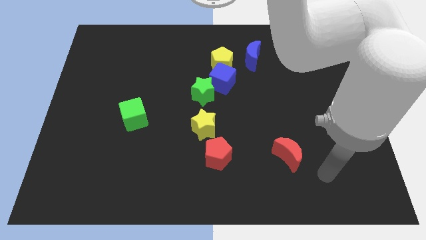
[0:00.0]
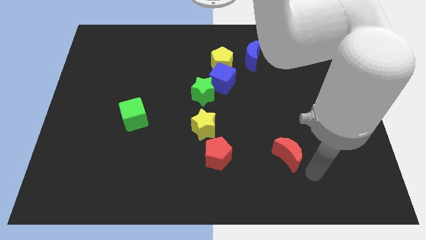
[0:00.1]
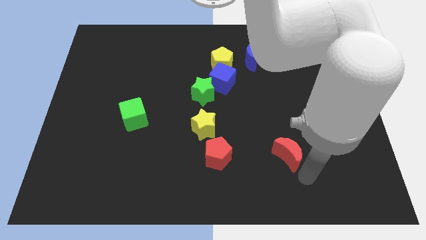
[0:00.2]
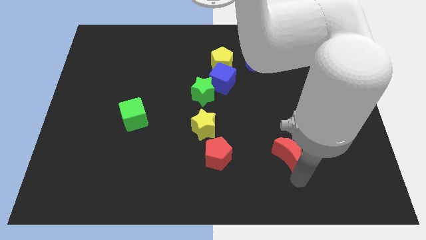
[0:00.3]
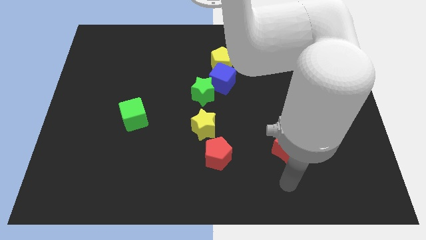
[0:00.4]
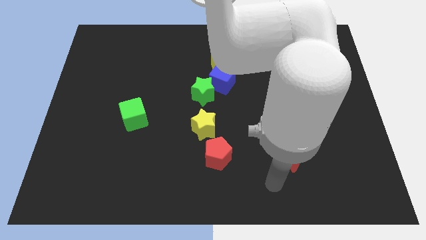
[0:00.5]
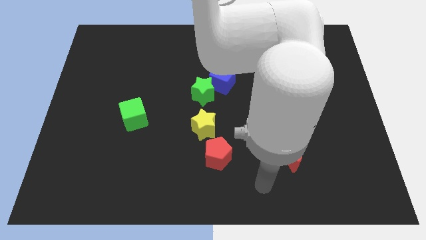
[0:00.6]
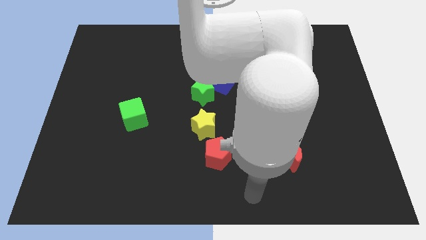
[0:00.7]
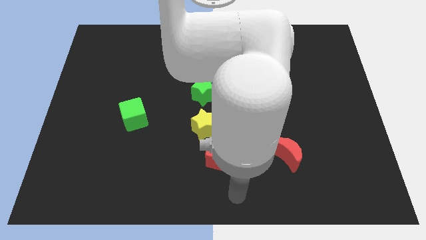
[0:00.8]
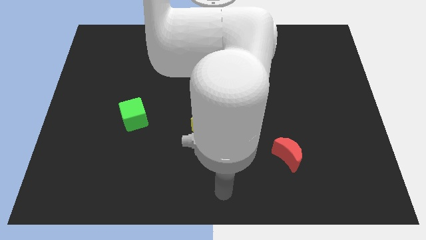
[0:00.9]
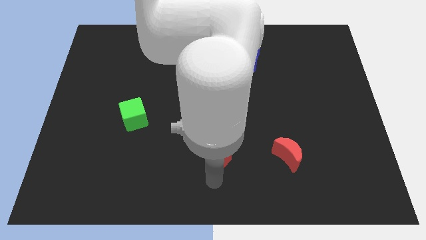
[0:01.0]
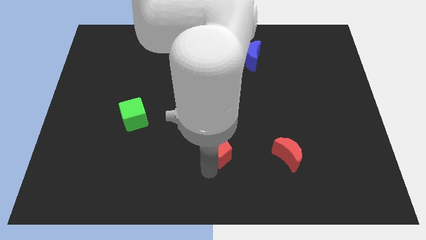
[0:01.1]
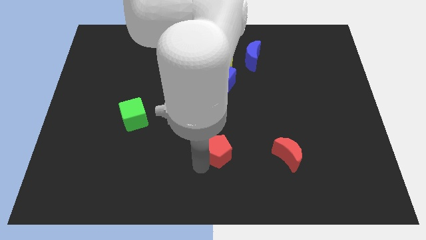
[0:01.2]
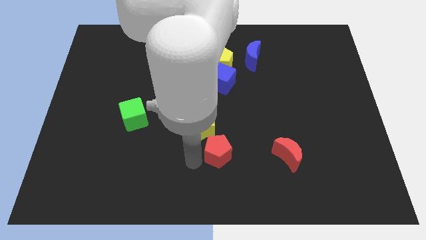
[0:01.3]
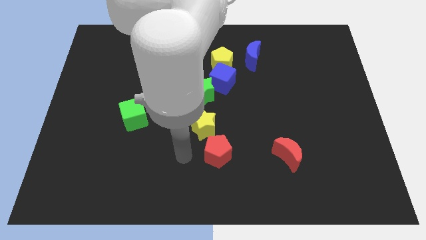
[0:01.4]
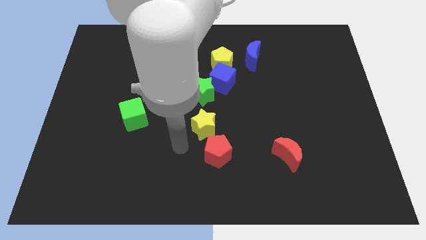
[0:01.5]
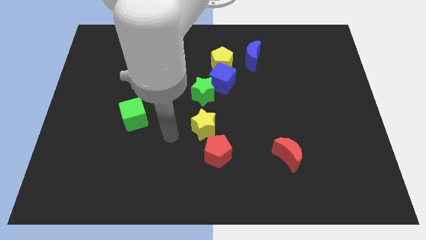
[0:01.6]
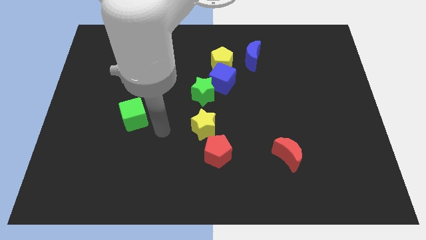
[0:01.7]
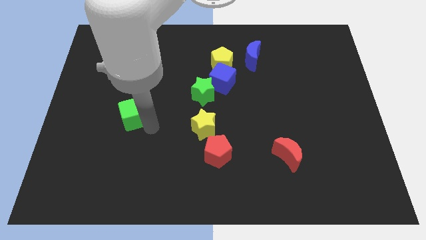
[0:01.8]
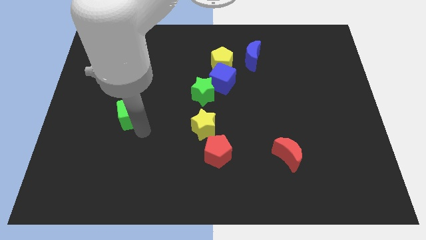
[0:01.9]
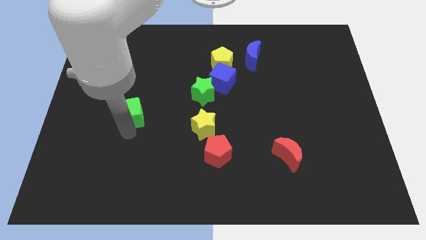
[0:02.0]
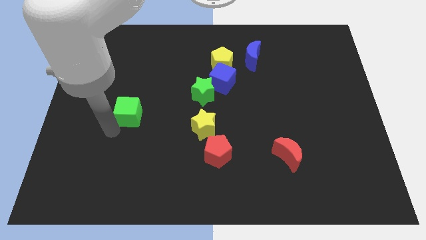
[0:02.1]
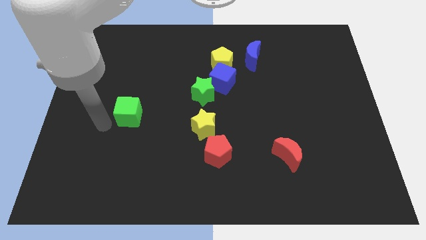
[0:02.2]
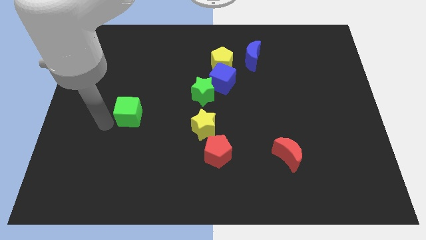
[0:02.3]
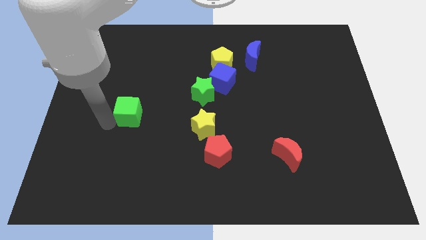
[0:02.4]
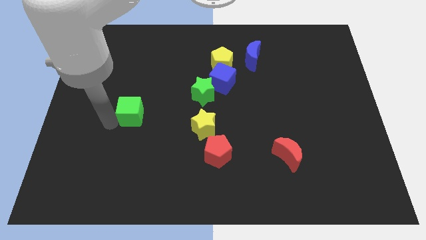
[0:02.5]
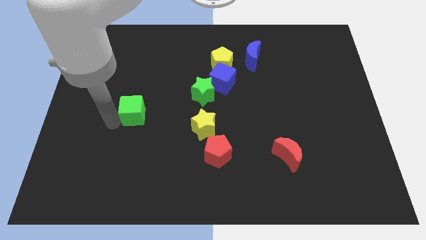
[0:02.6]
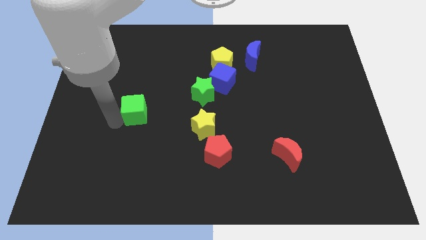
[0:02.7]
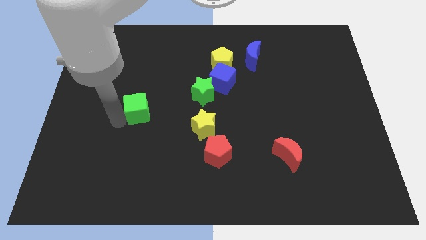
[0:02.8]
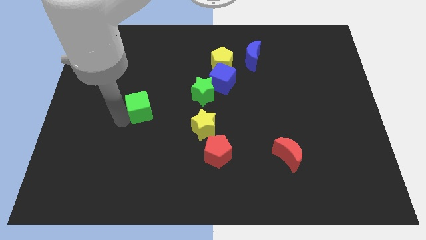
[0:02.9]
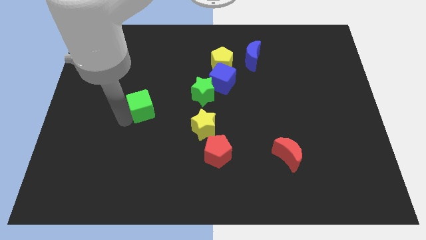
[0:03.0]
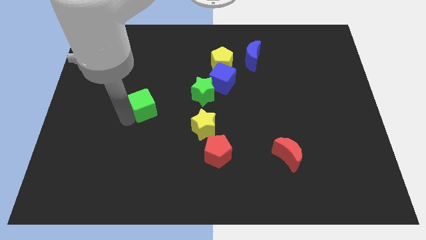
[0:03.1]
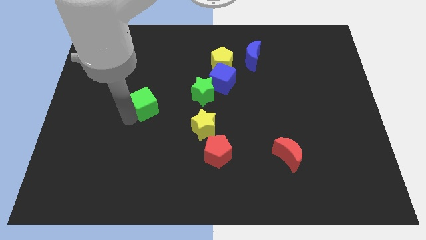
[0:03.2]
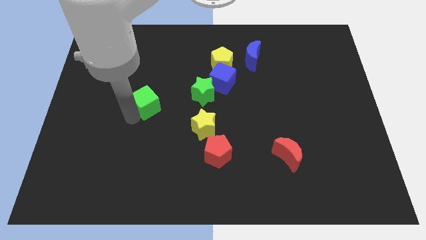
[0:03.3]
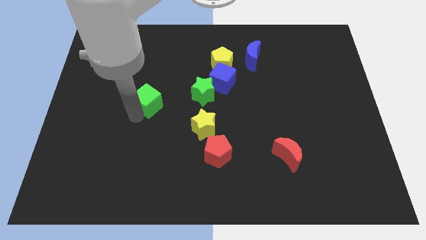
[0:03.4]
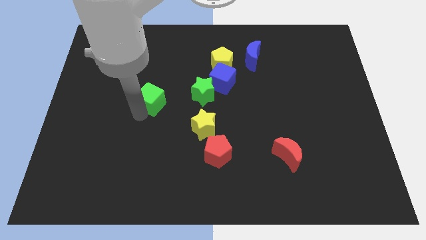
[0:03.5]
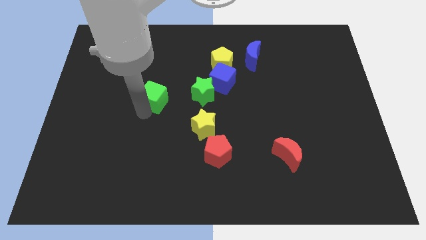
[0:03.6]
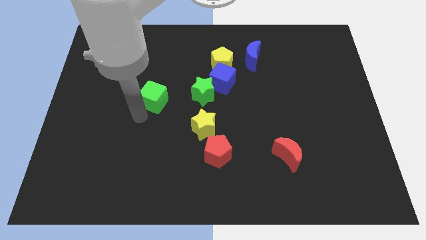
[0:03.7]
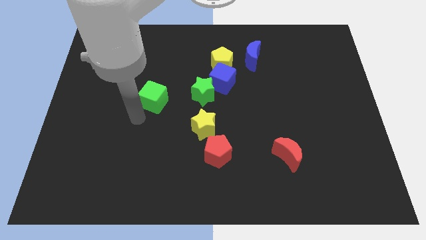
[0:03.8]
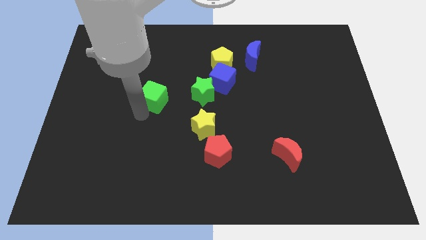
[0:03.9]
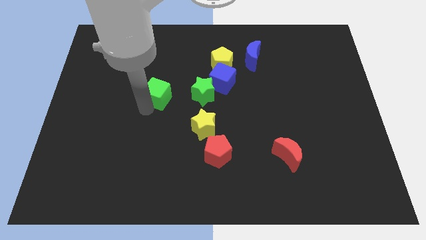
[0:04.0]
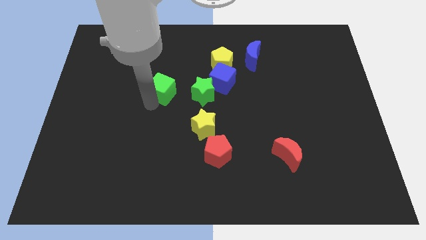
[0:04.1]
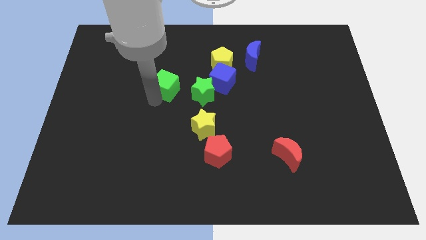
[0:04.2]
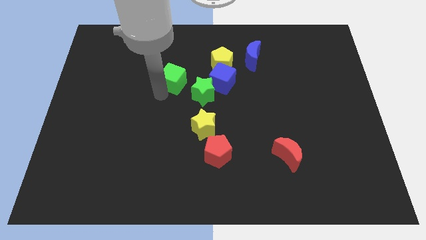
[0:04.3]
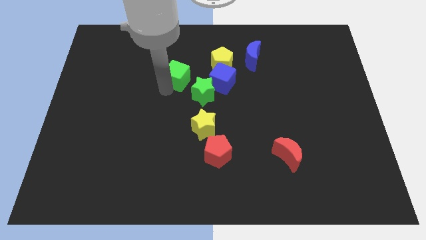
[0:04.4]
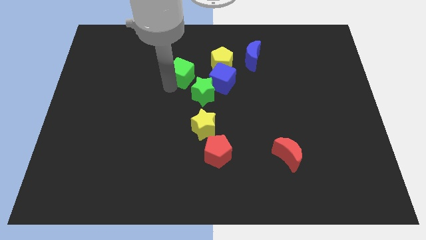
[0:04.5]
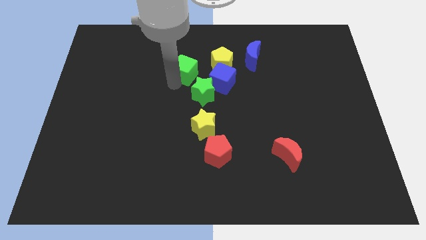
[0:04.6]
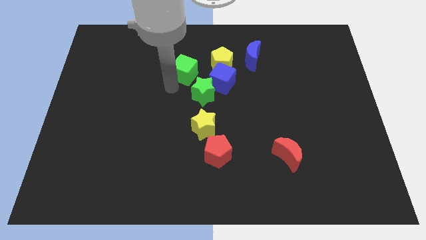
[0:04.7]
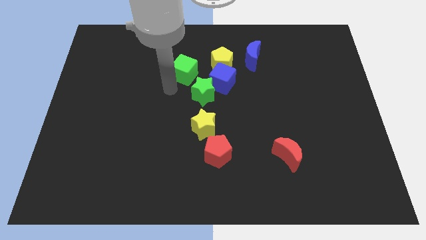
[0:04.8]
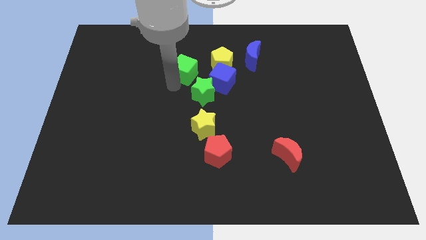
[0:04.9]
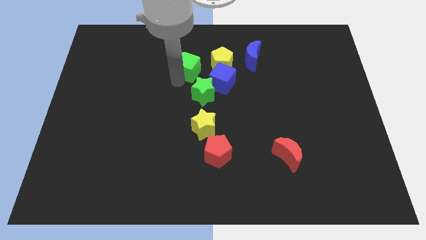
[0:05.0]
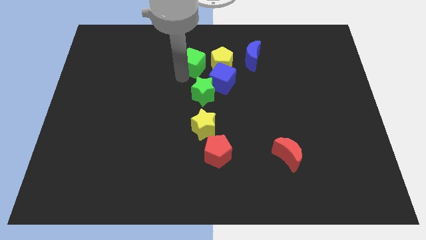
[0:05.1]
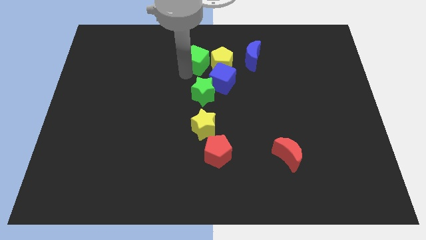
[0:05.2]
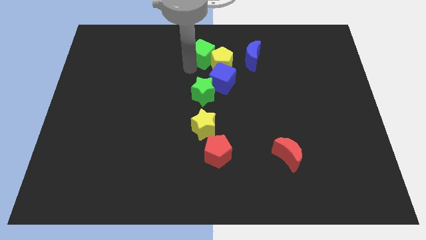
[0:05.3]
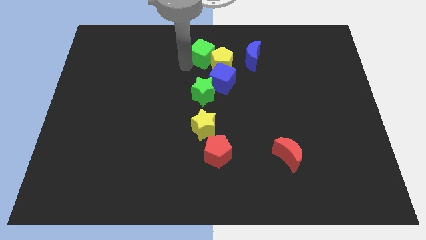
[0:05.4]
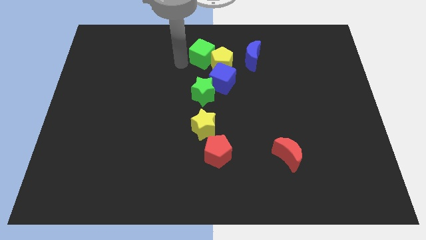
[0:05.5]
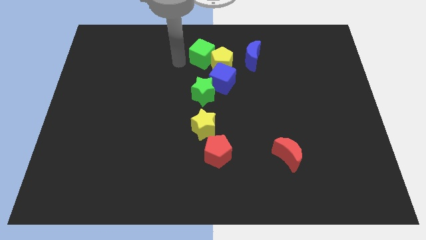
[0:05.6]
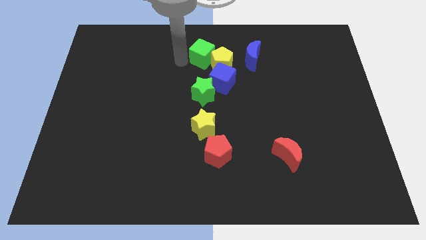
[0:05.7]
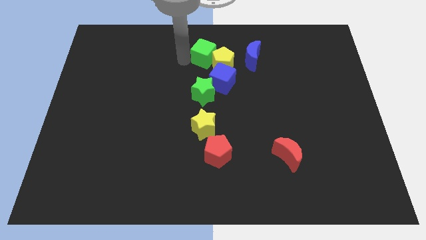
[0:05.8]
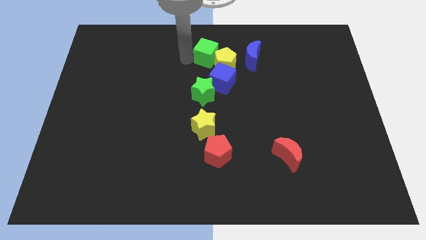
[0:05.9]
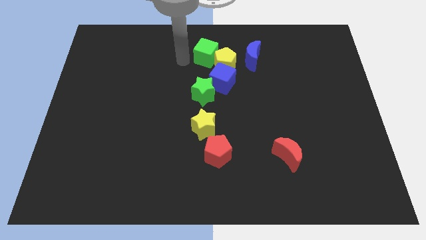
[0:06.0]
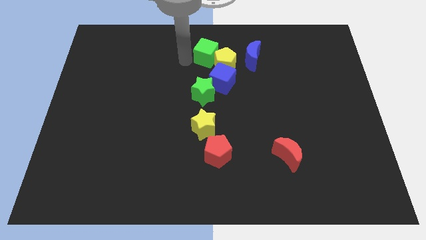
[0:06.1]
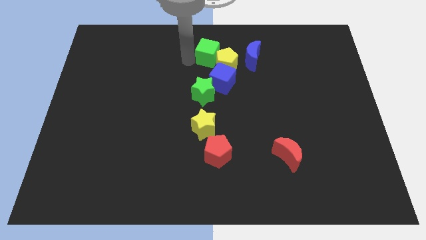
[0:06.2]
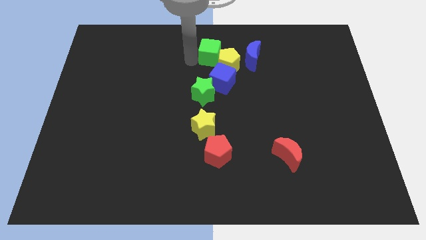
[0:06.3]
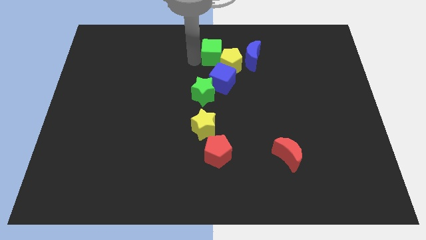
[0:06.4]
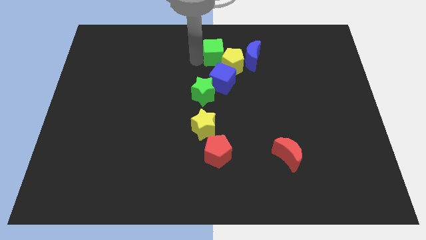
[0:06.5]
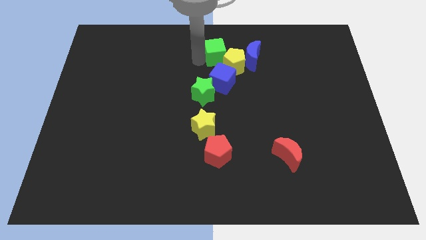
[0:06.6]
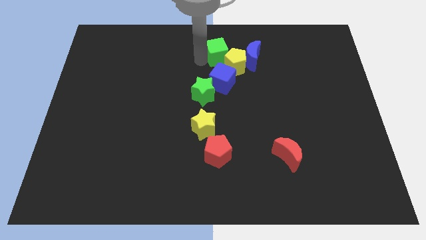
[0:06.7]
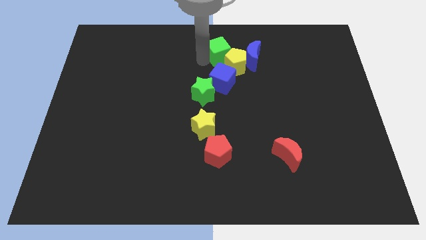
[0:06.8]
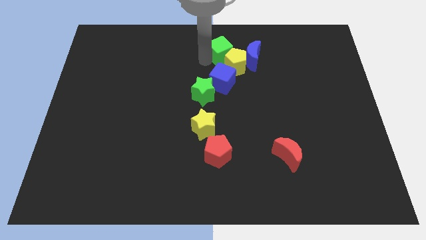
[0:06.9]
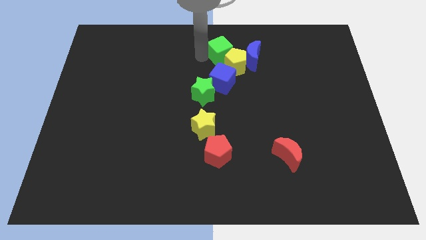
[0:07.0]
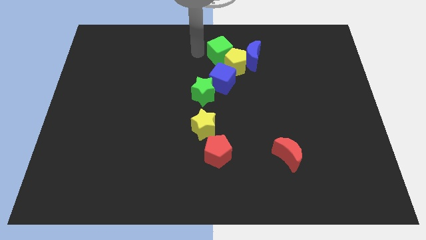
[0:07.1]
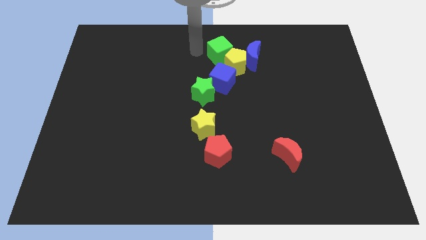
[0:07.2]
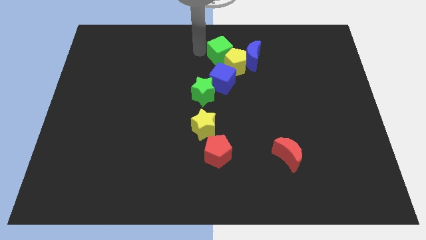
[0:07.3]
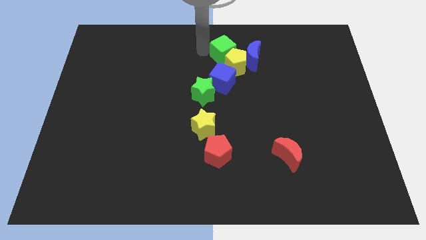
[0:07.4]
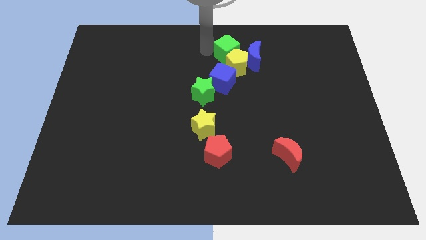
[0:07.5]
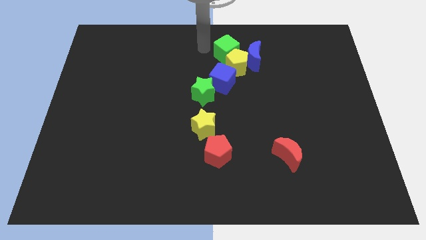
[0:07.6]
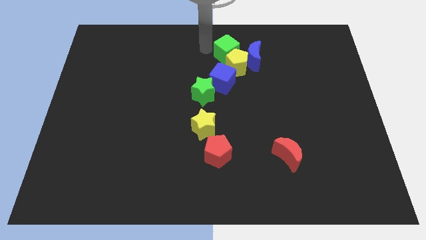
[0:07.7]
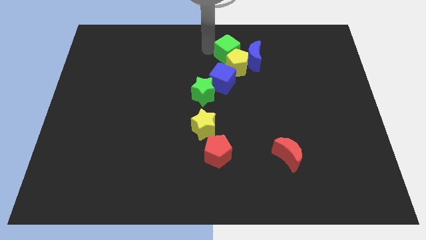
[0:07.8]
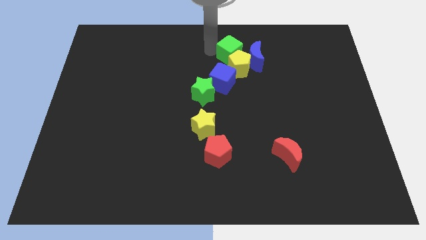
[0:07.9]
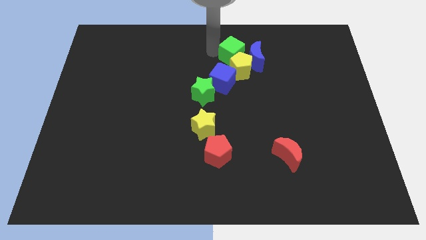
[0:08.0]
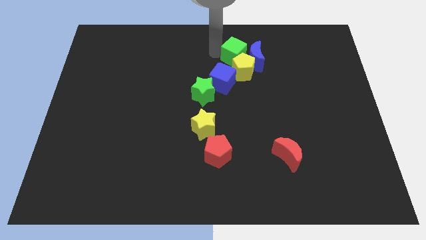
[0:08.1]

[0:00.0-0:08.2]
slide the green cube next to the blue moon
